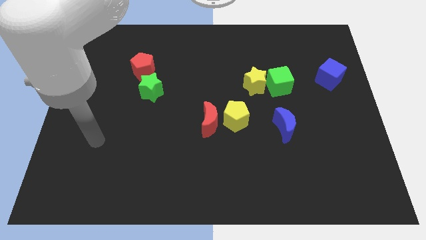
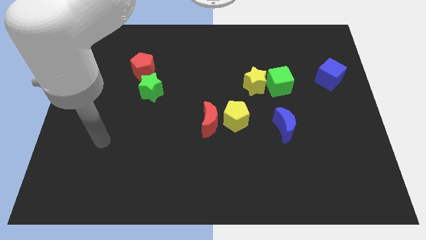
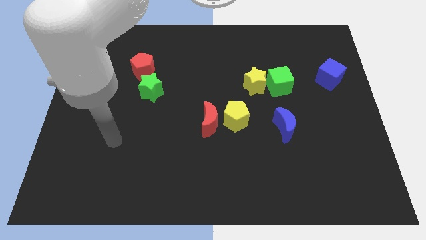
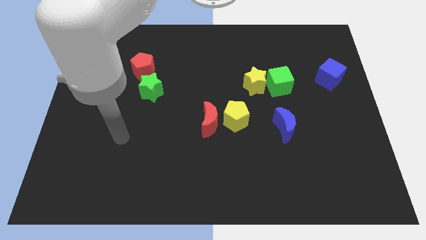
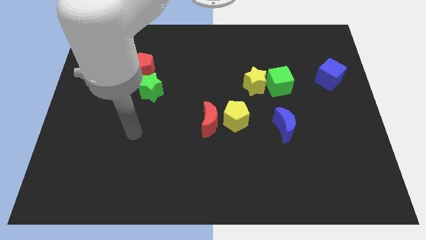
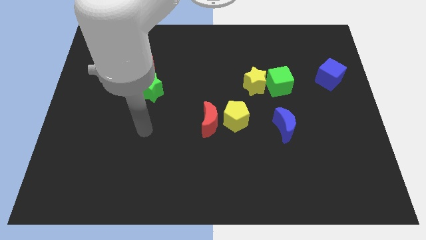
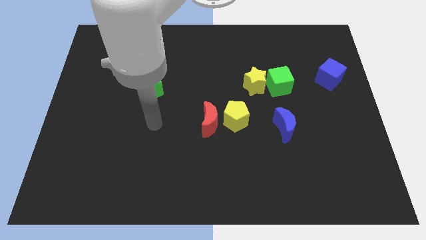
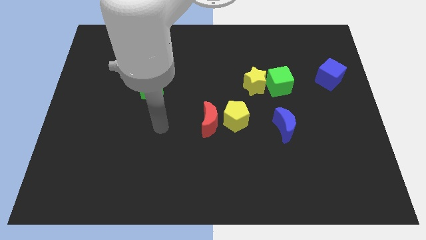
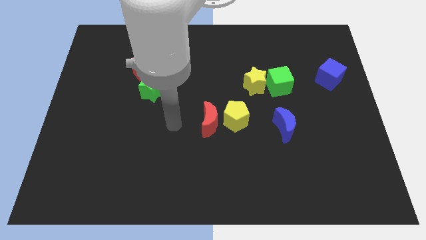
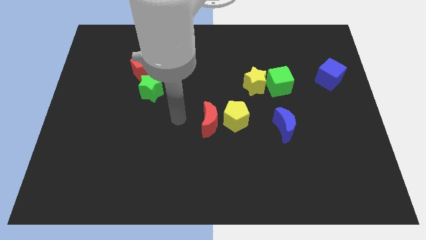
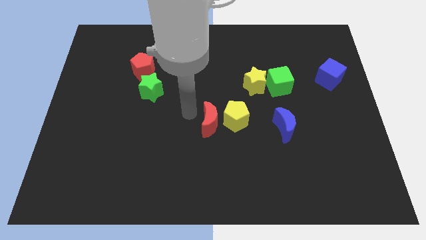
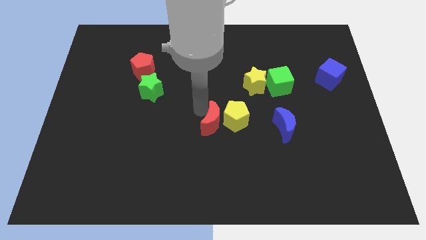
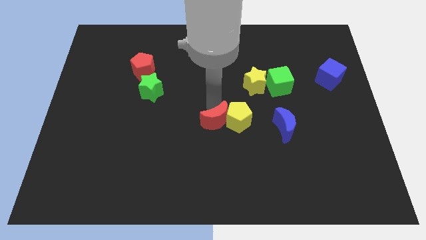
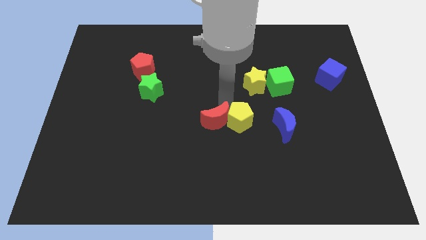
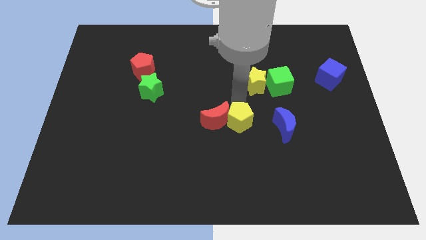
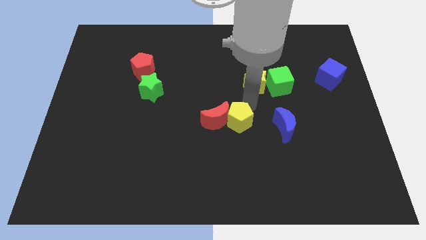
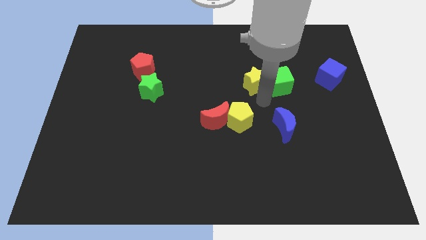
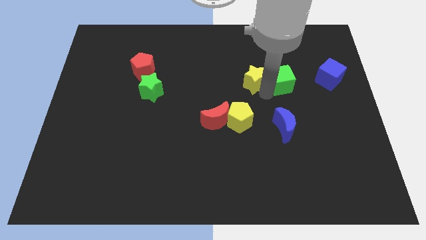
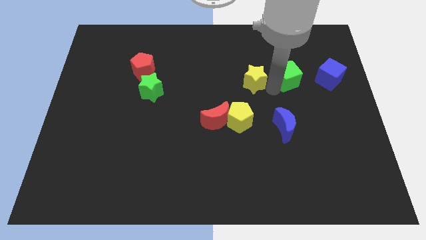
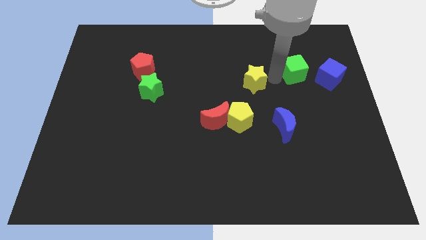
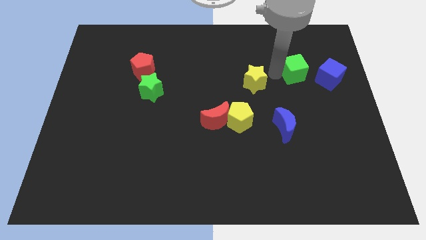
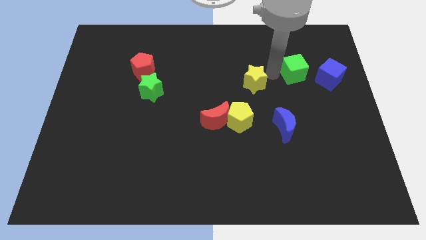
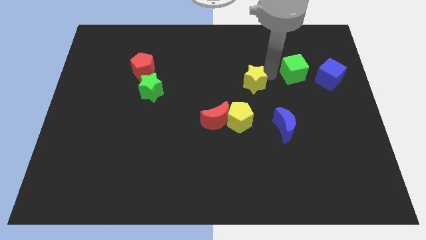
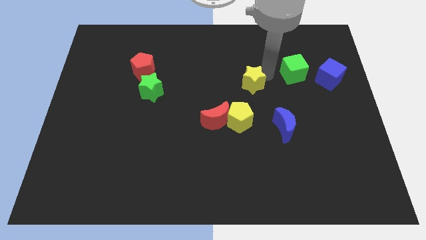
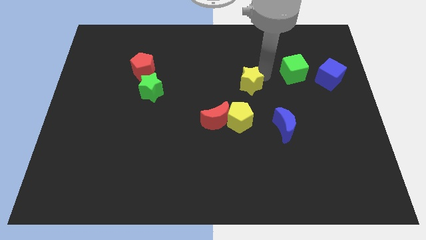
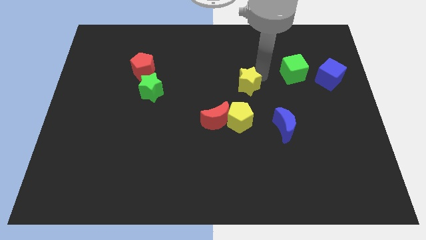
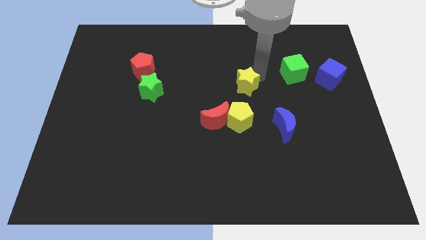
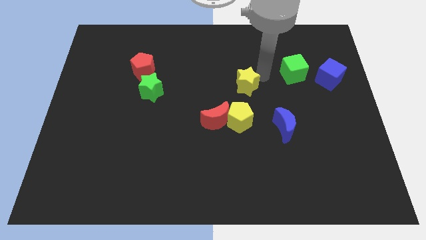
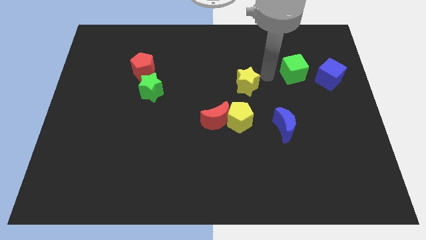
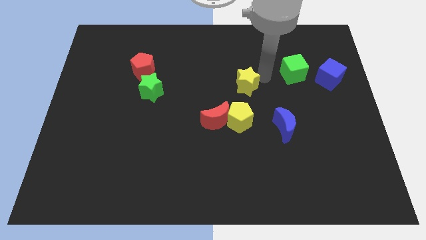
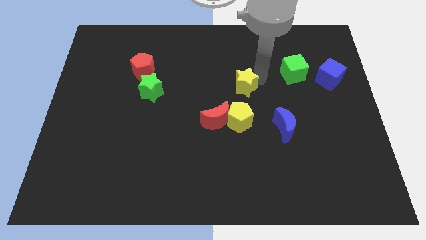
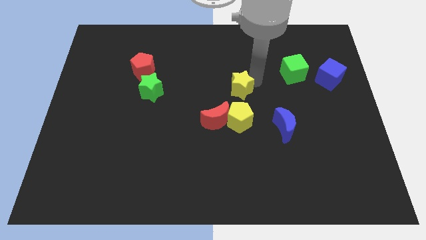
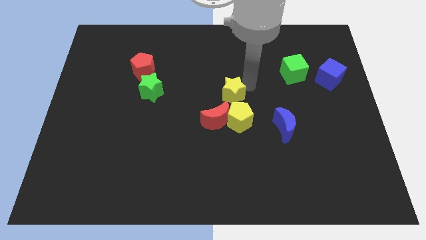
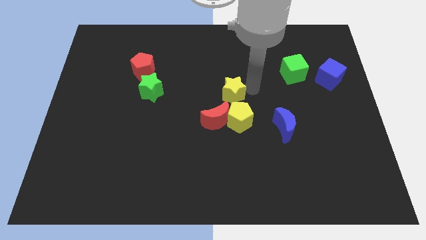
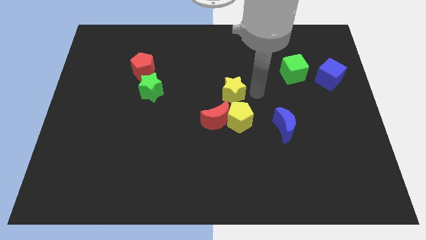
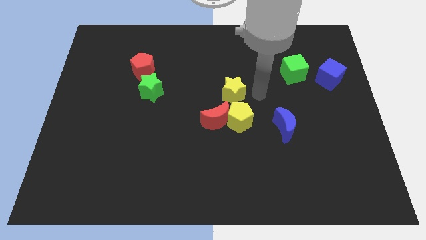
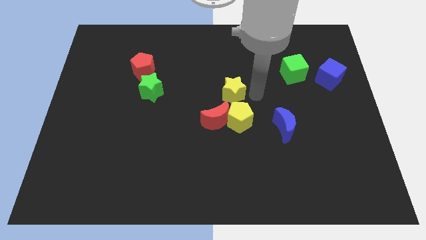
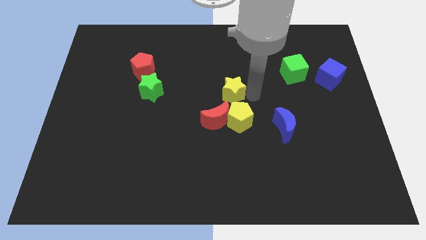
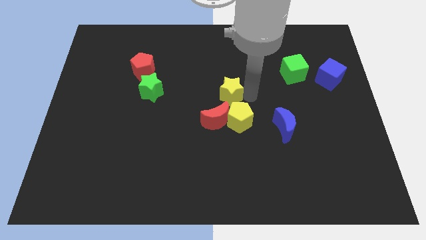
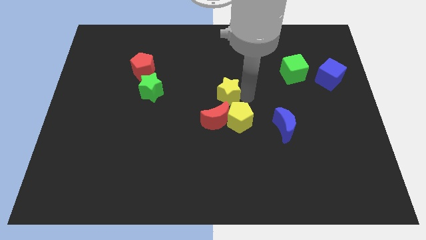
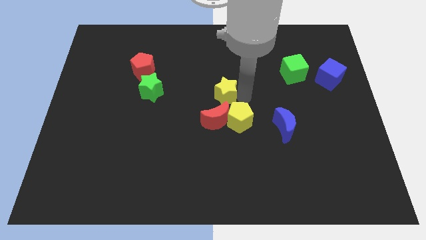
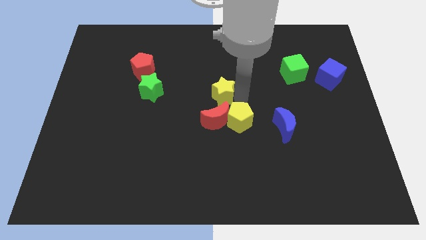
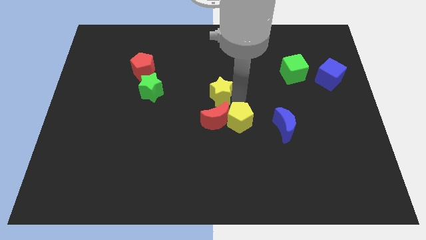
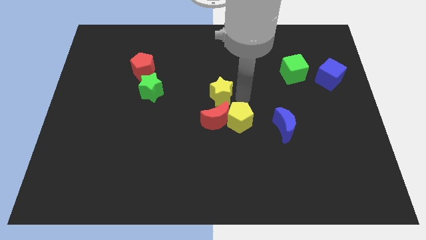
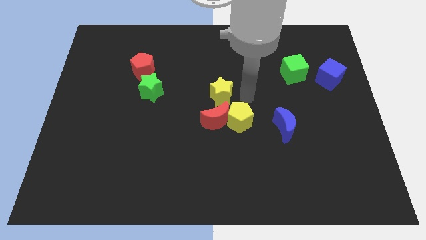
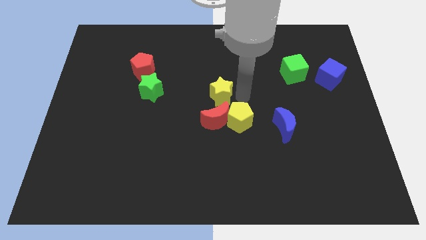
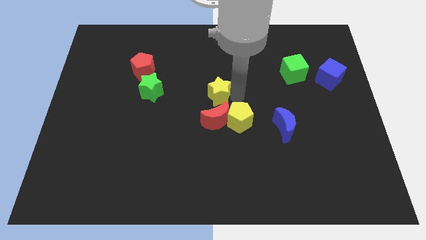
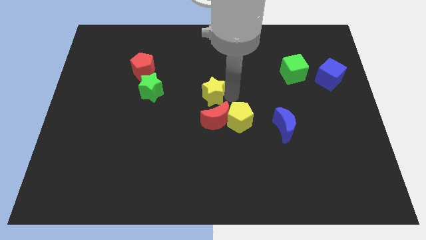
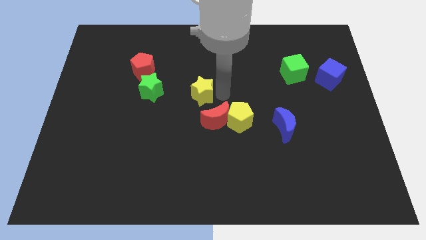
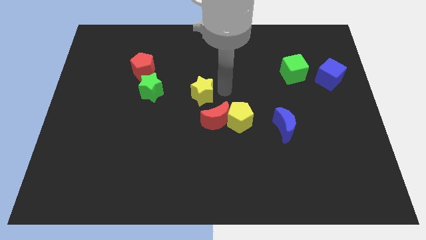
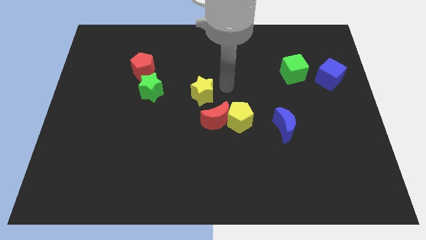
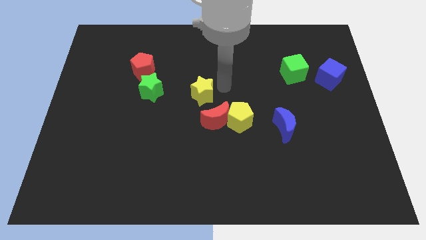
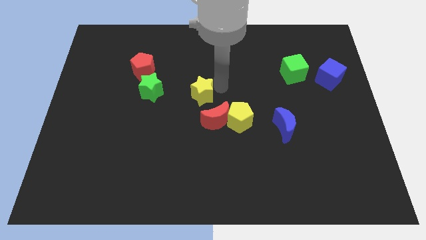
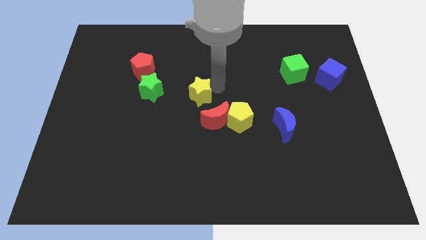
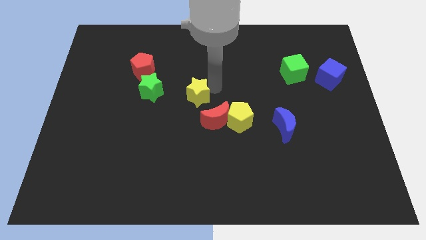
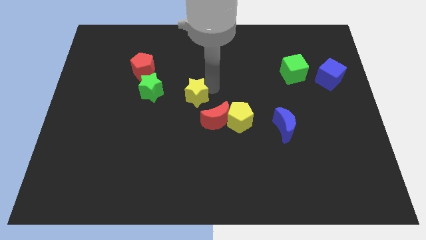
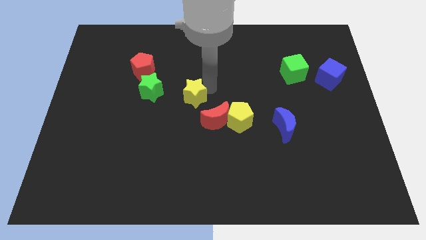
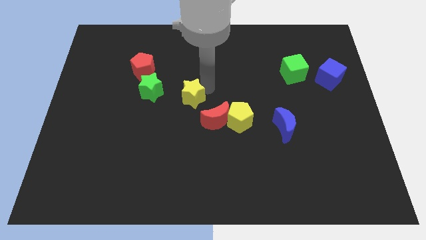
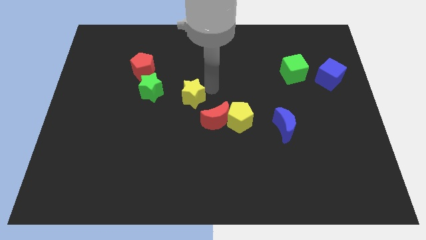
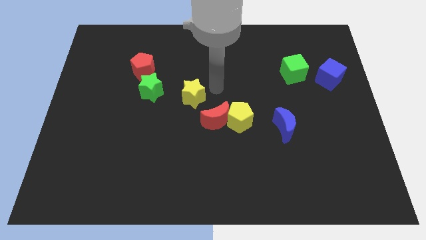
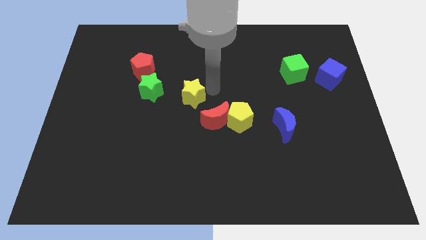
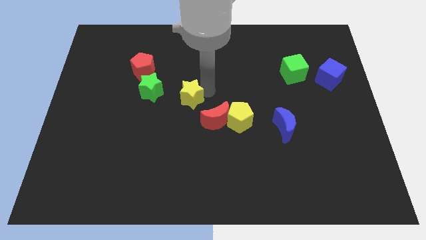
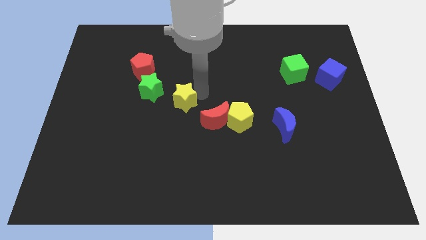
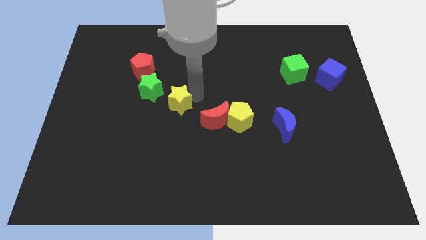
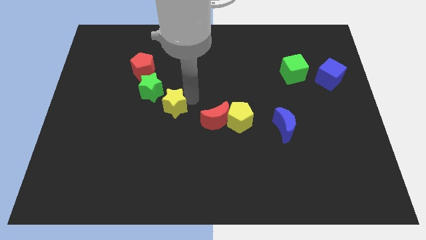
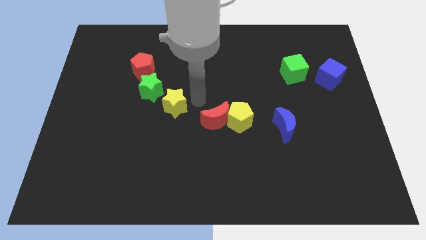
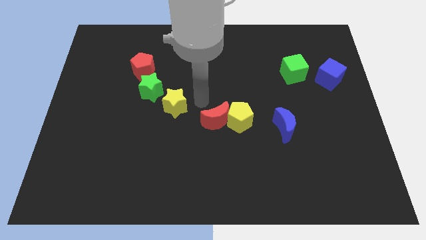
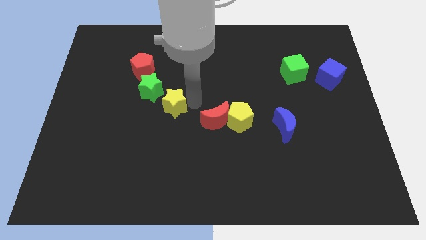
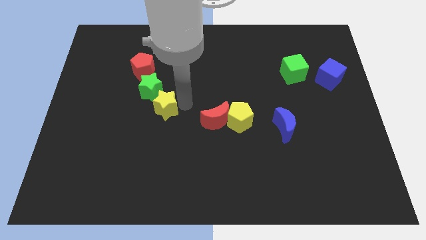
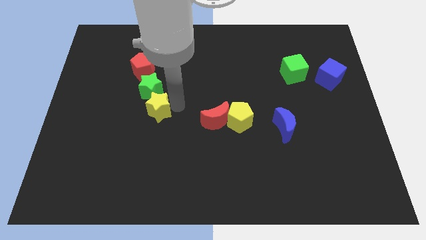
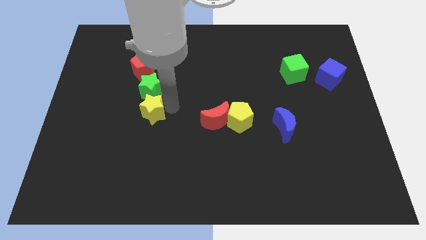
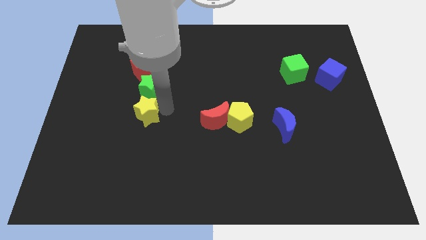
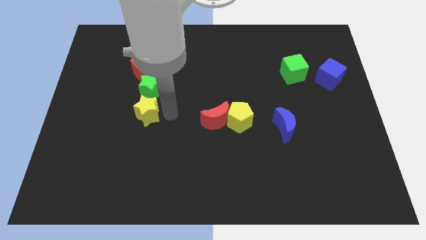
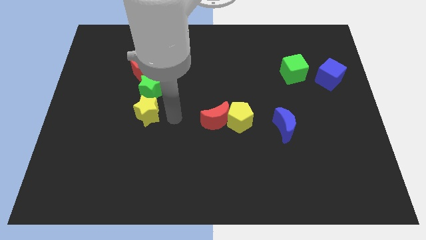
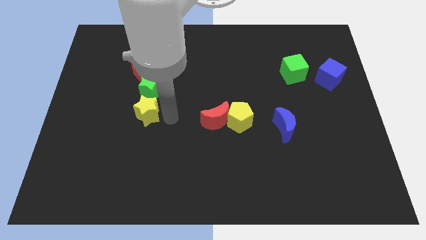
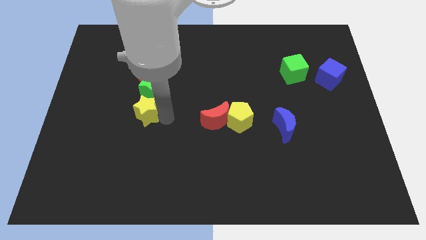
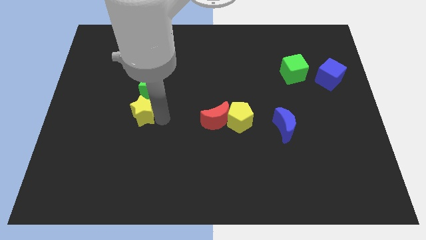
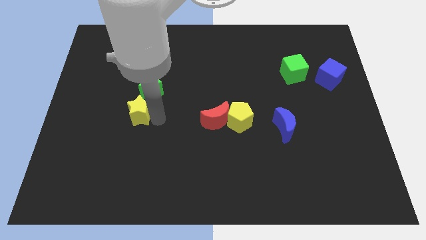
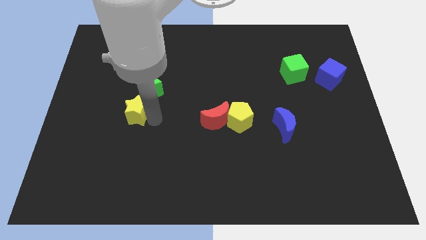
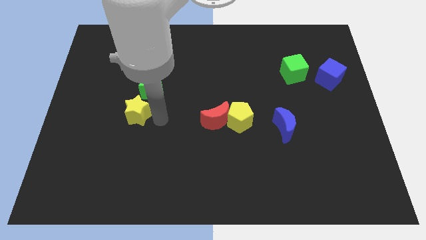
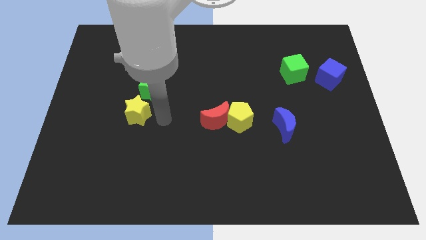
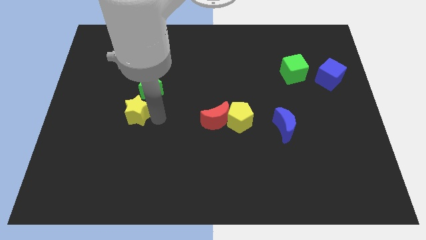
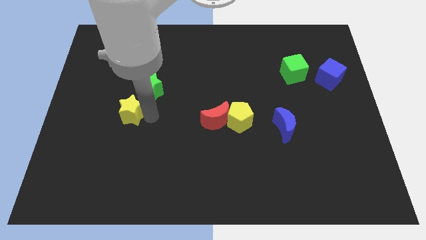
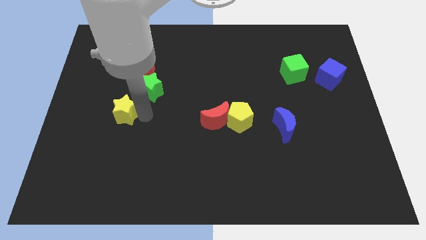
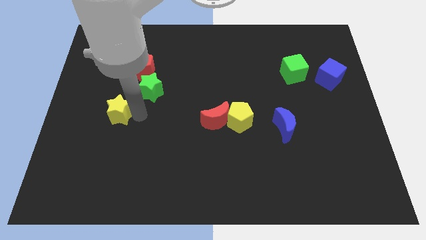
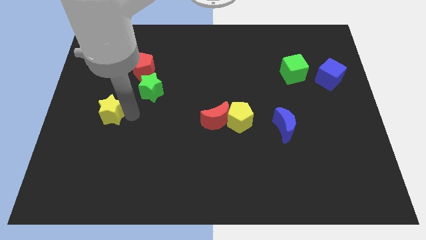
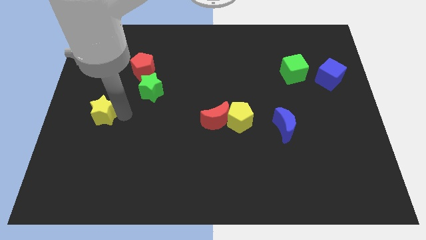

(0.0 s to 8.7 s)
put the yellow star to the left side of the board
